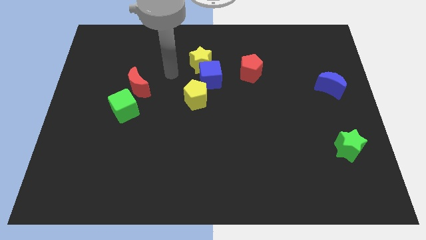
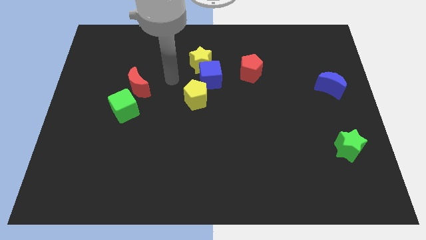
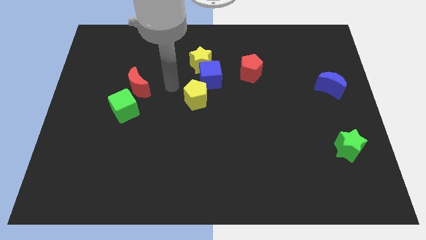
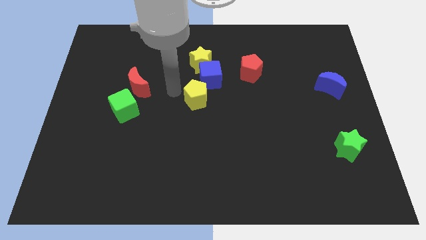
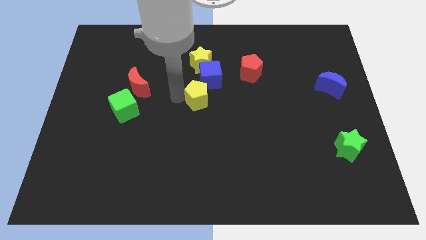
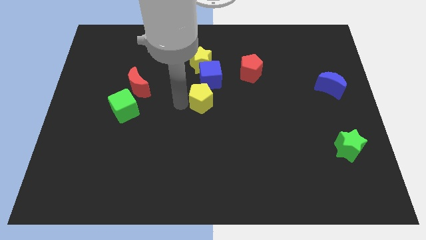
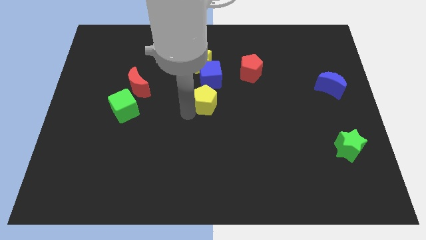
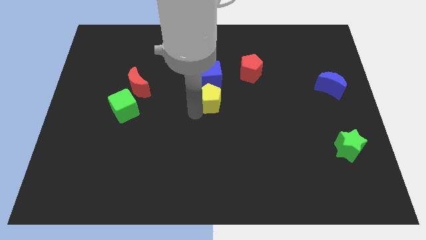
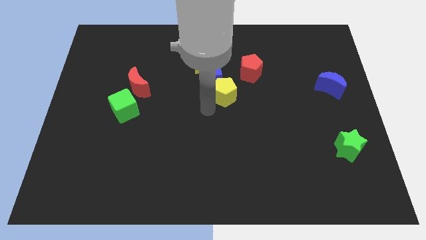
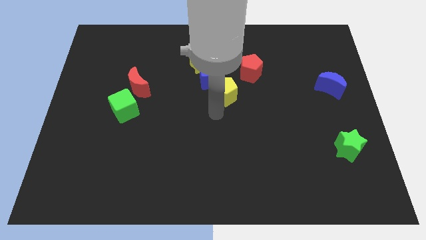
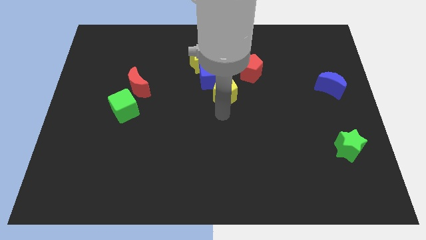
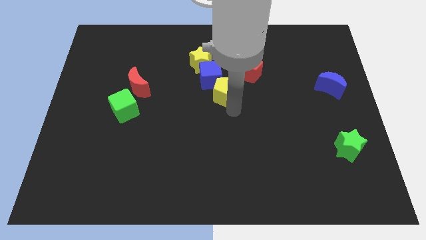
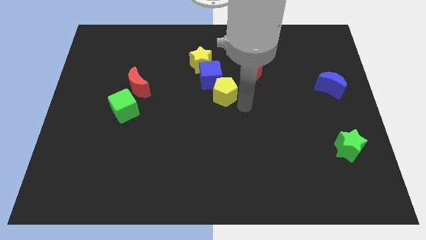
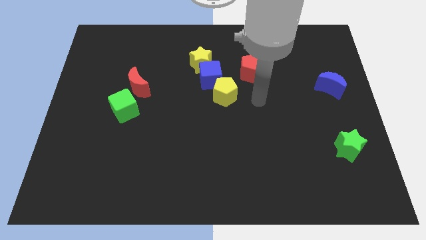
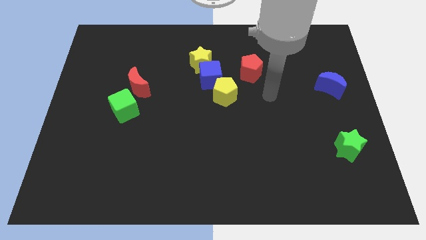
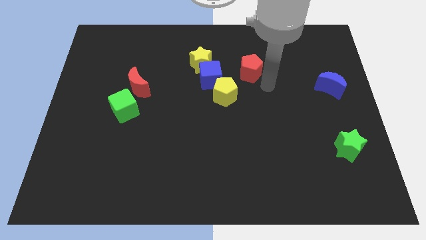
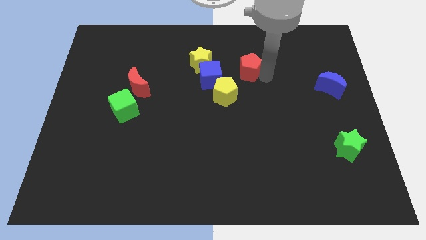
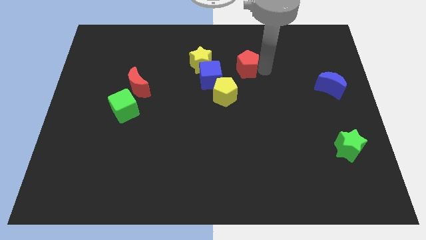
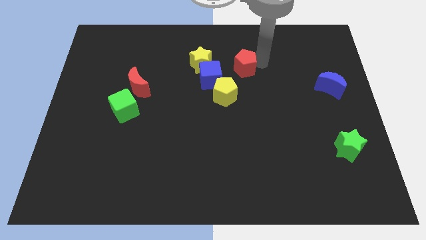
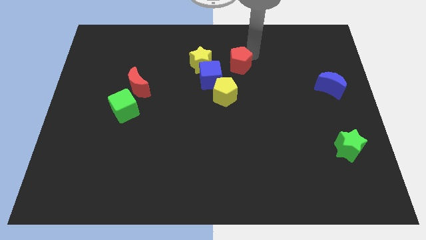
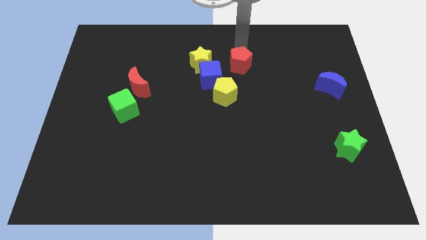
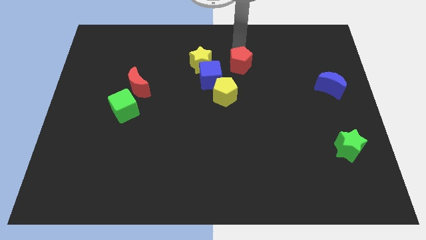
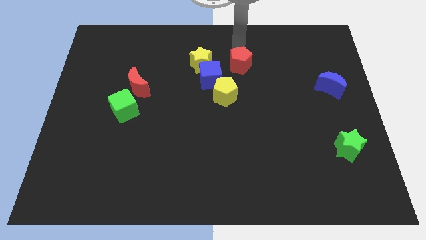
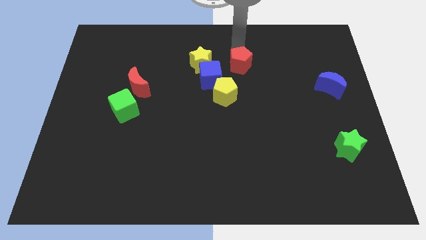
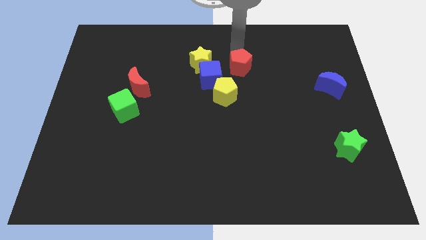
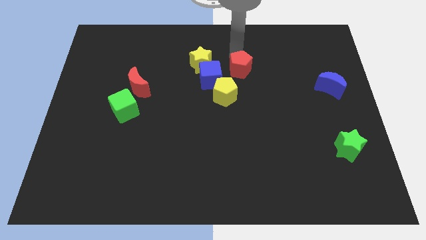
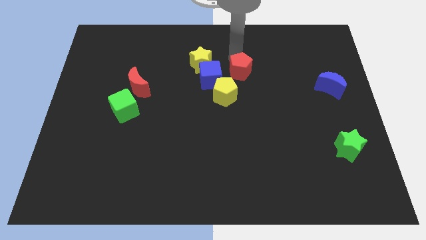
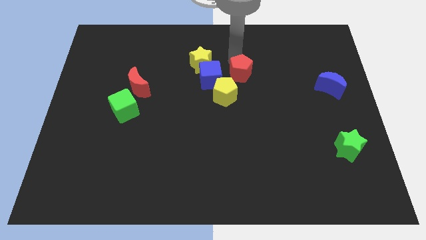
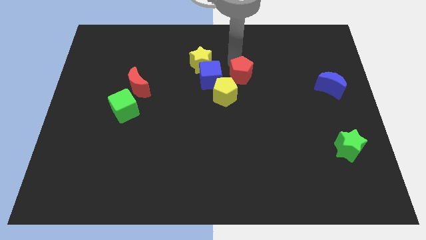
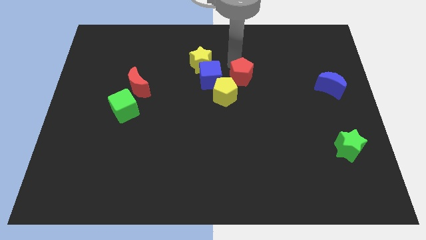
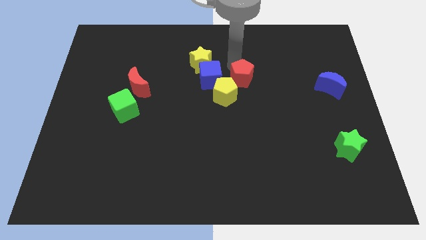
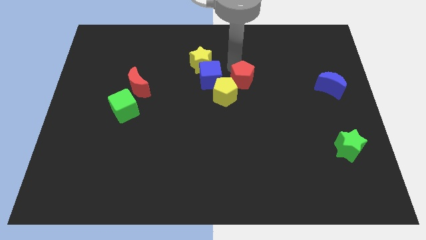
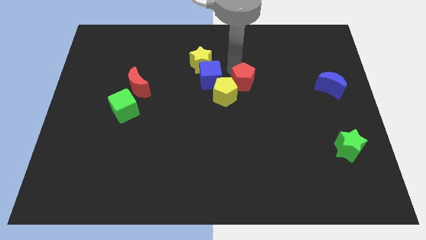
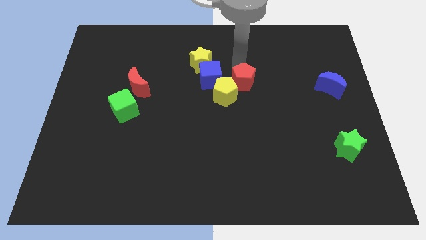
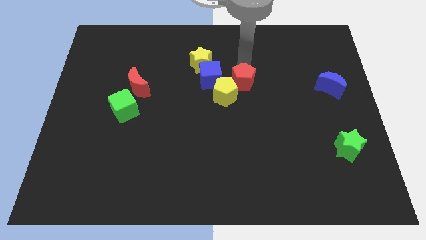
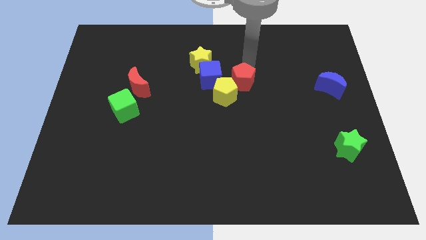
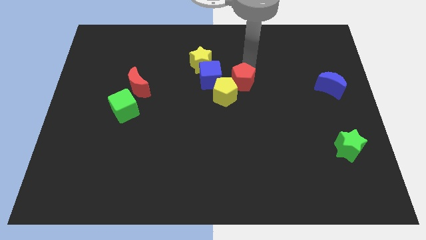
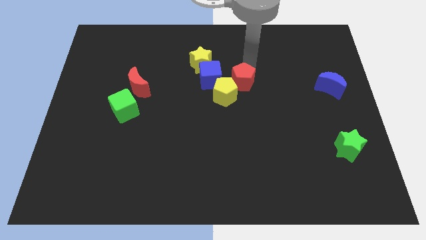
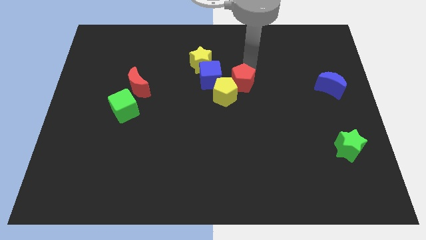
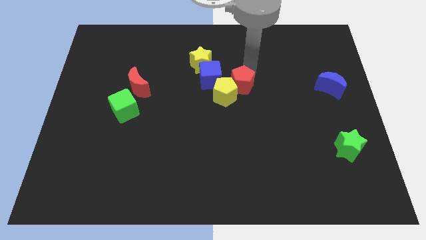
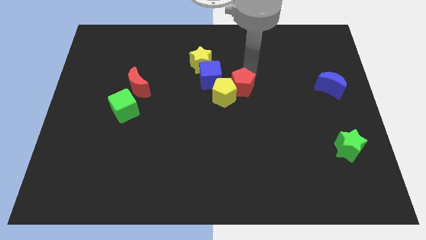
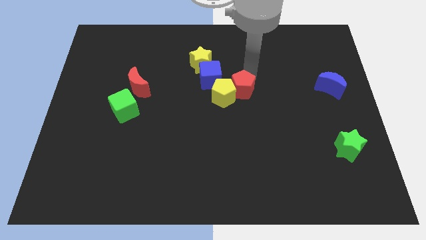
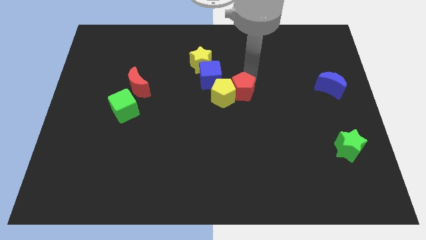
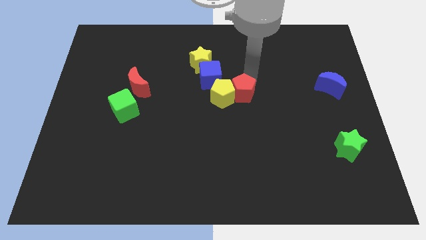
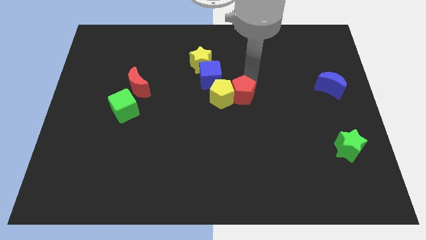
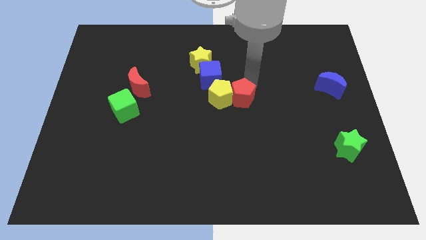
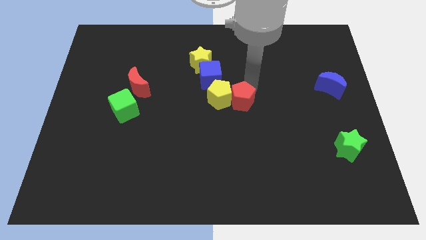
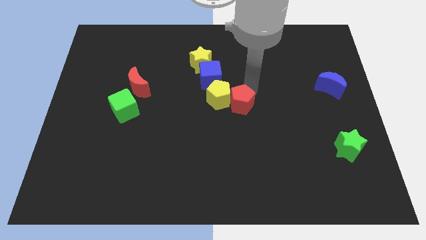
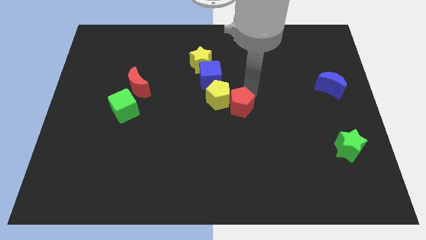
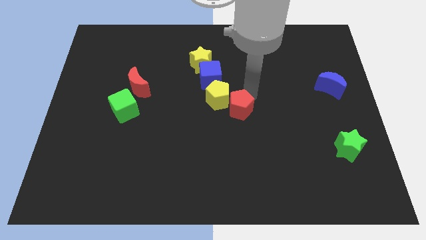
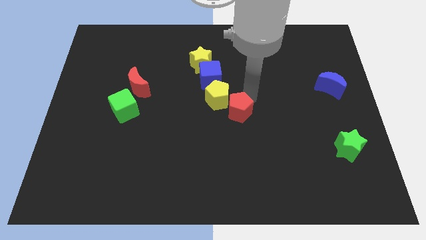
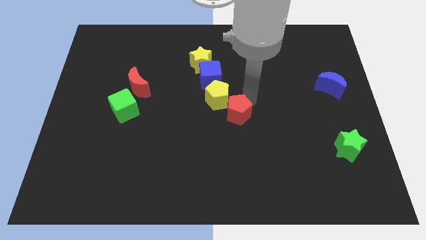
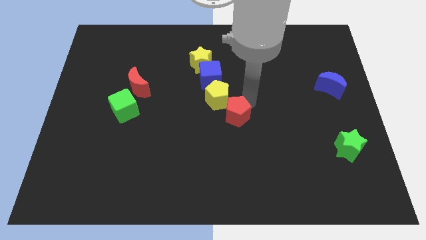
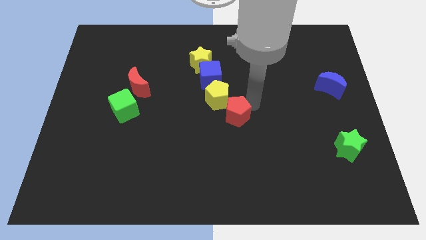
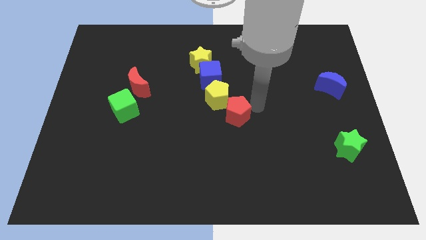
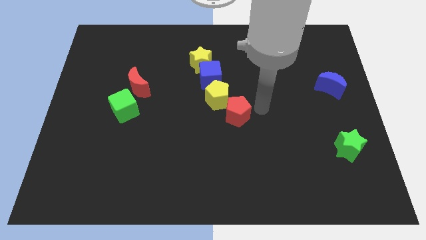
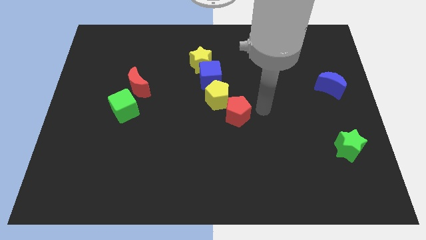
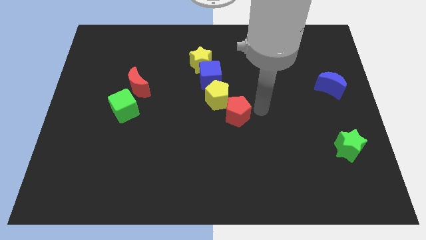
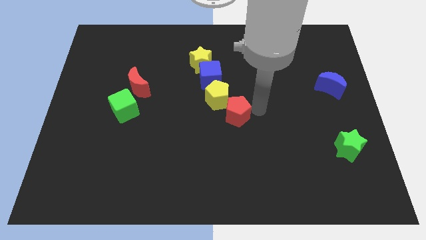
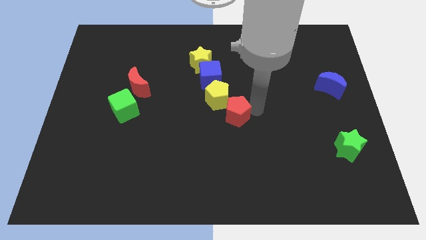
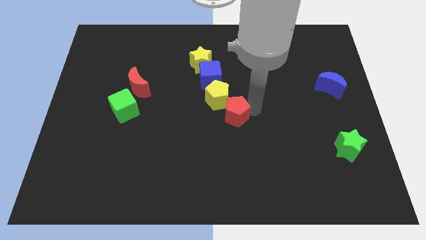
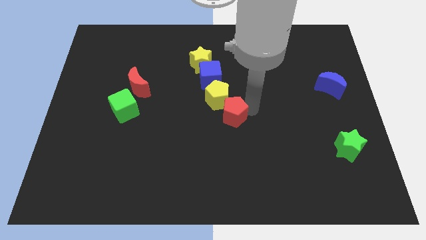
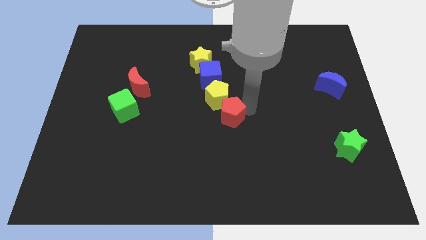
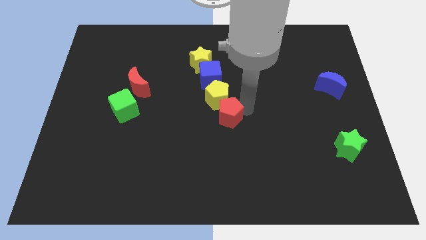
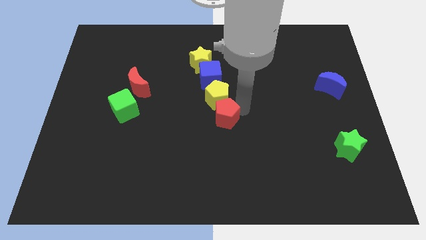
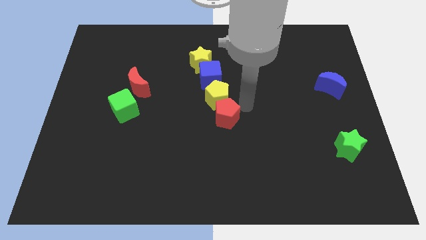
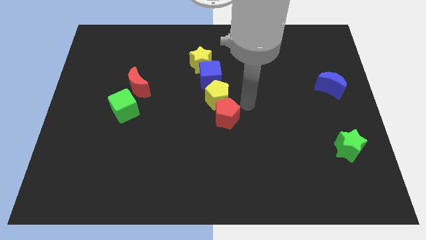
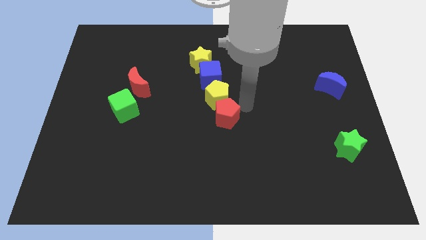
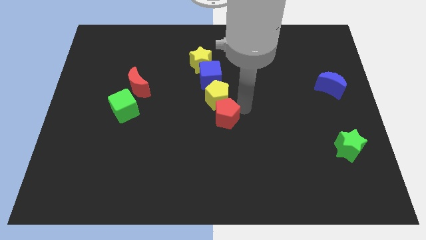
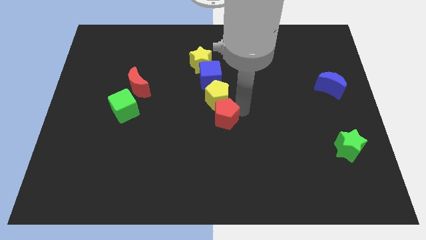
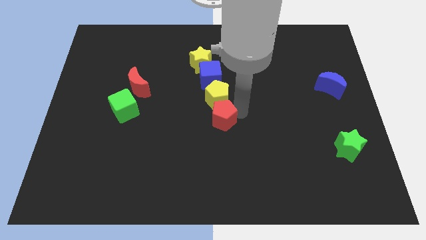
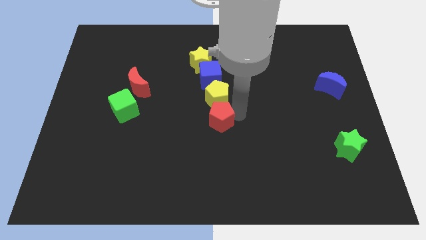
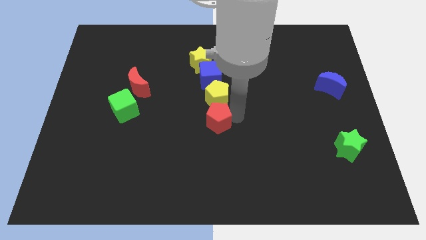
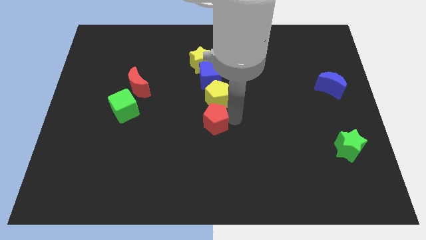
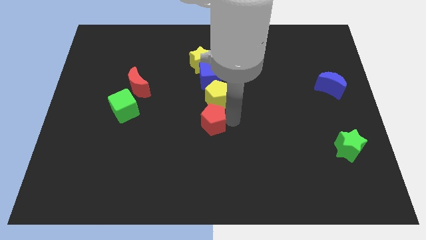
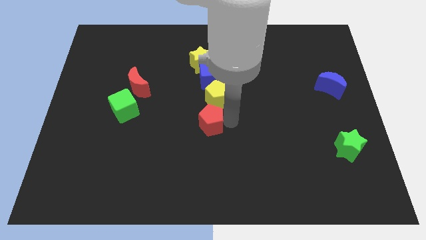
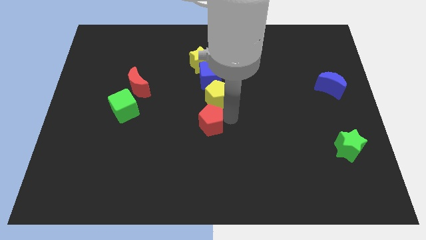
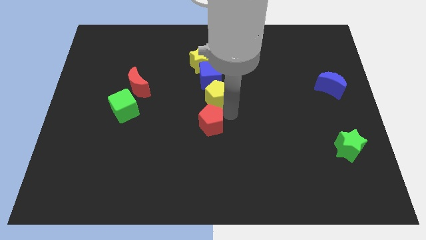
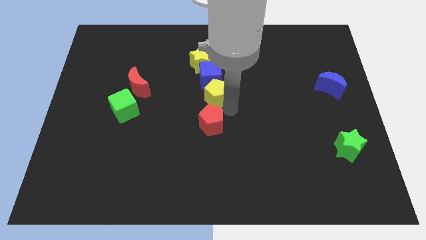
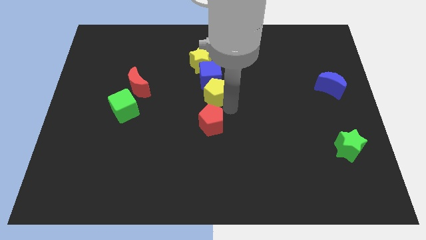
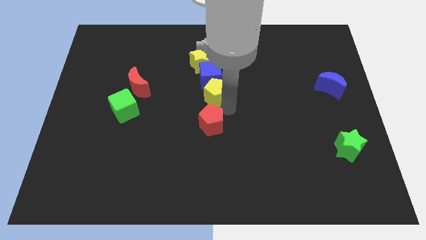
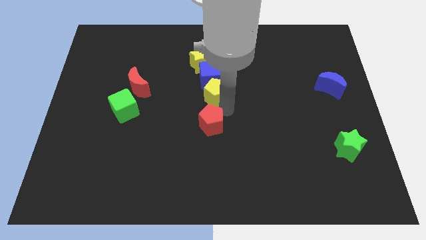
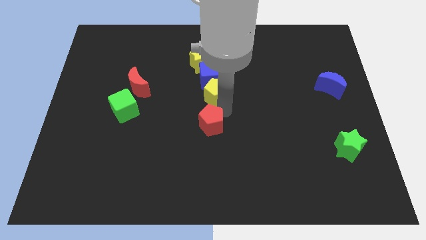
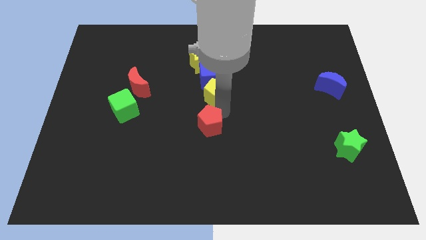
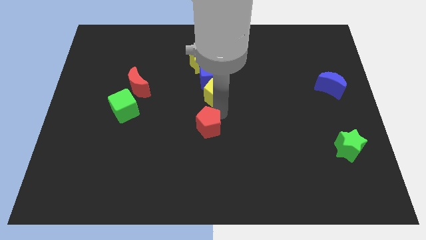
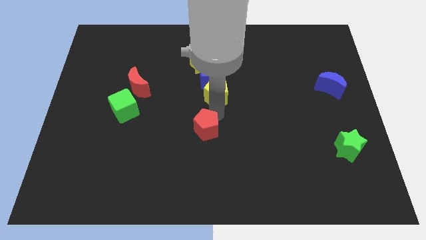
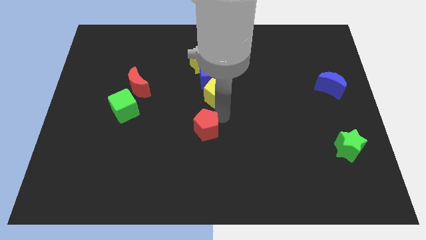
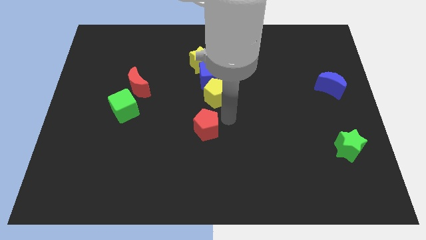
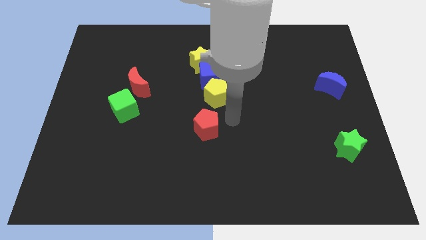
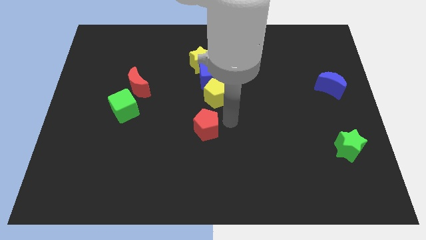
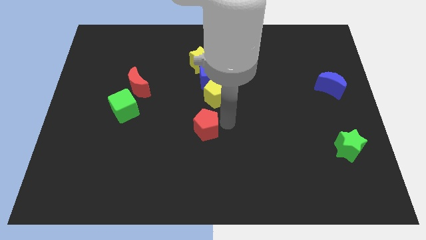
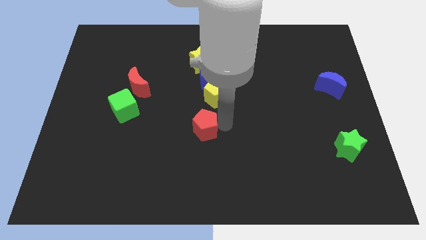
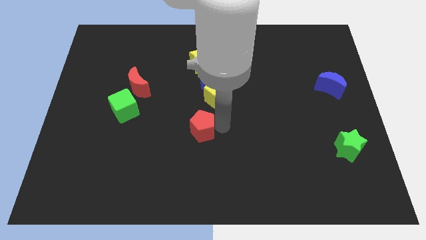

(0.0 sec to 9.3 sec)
slide the red pentagon down and to the left diagonally
